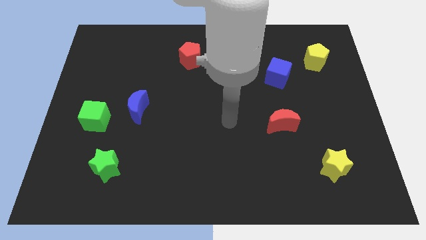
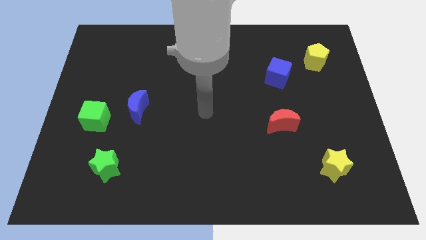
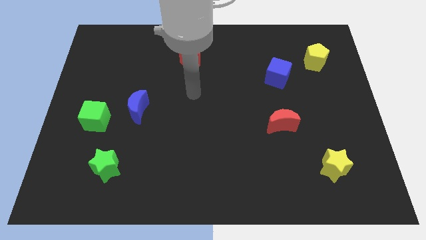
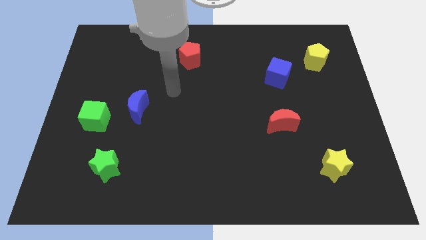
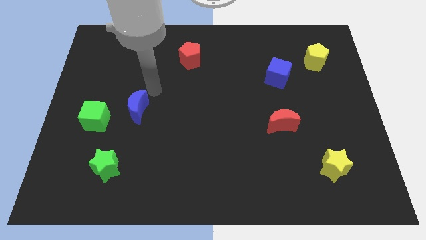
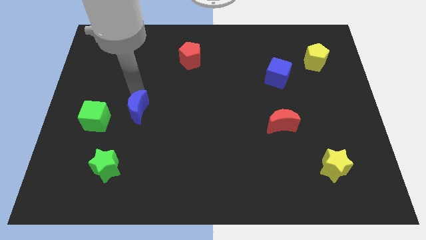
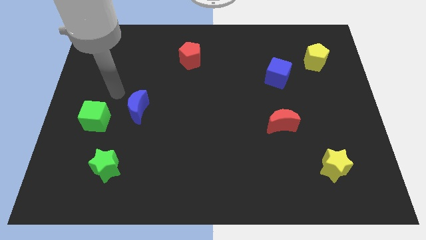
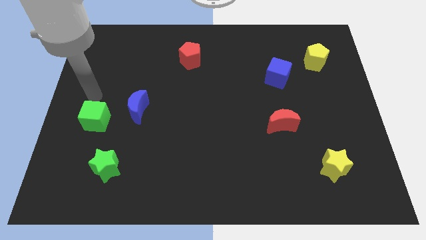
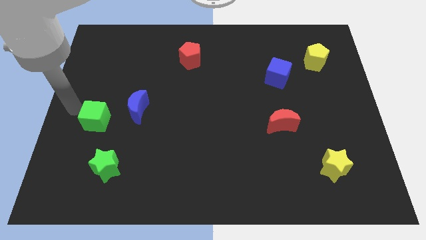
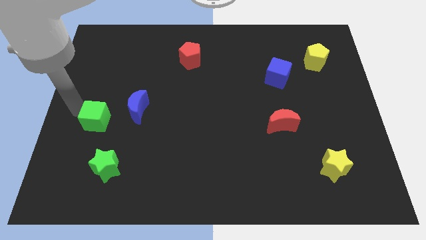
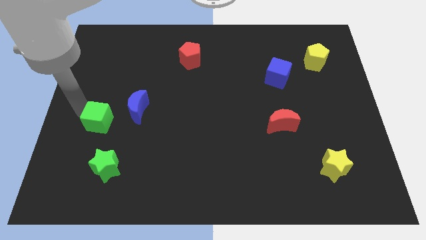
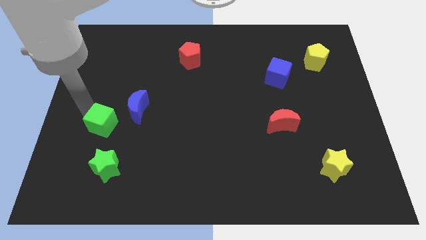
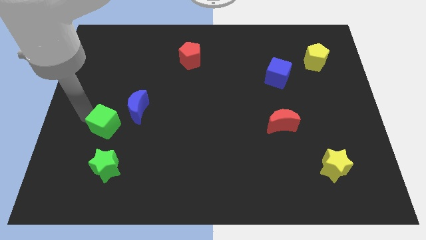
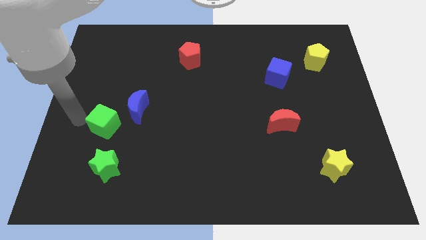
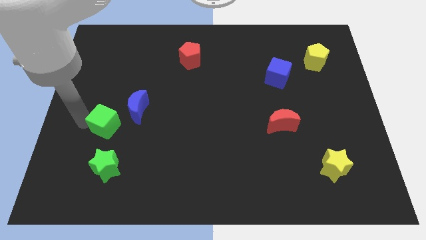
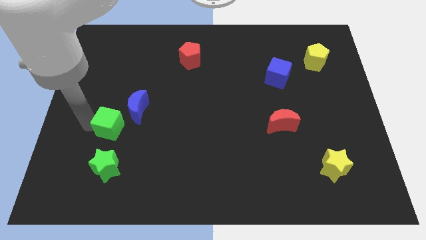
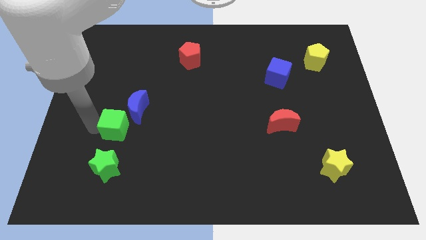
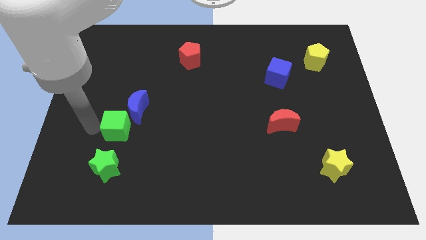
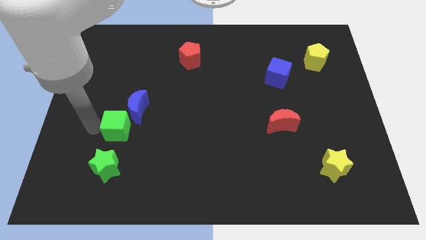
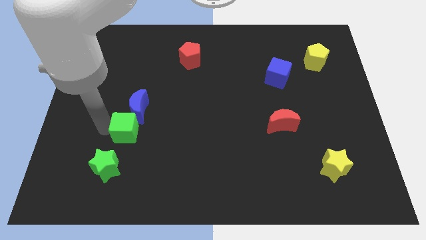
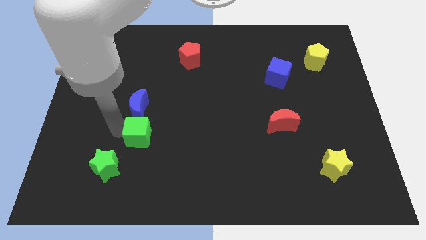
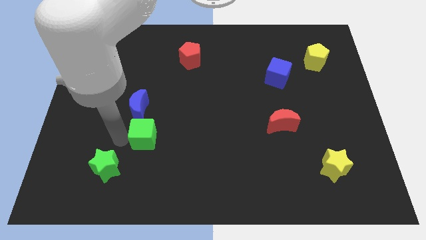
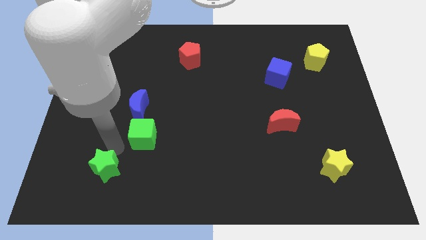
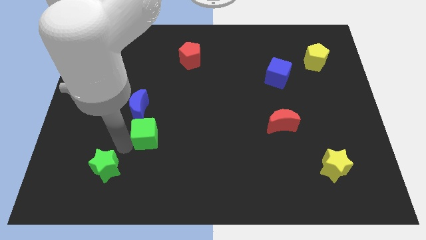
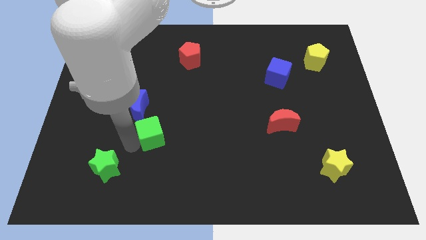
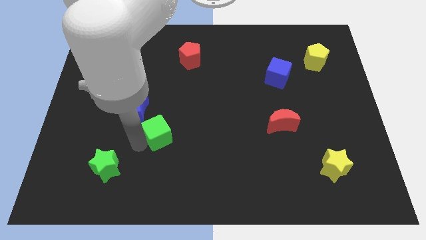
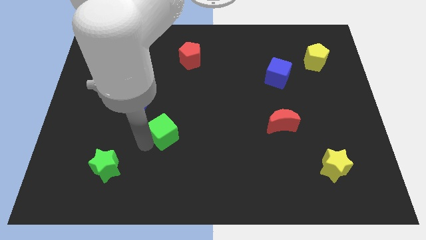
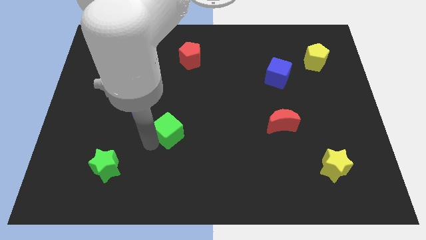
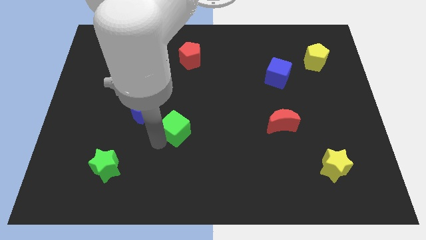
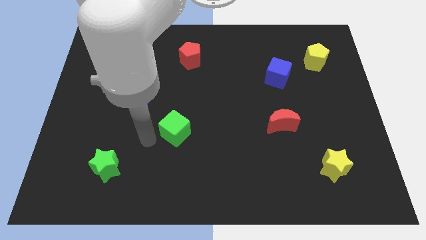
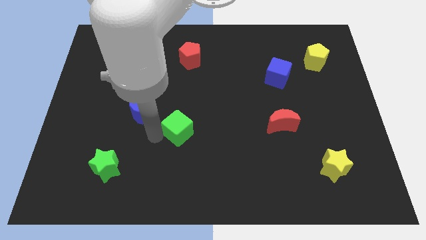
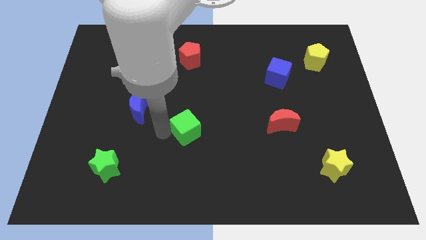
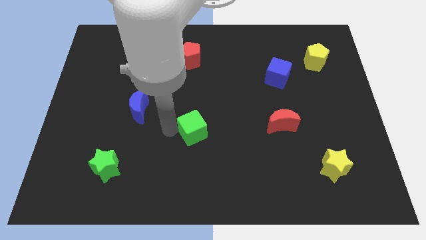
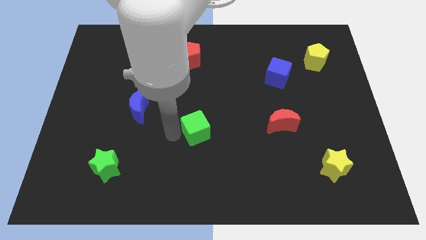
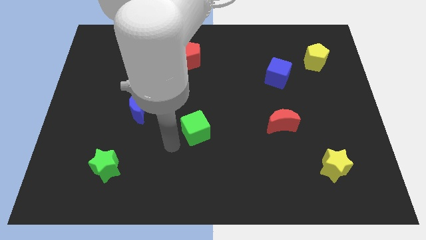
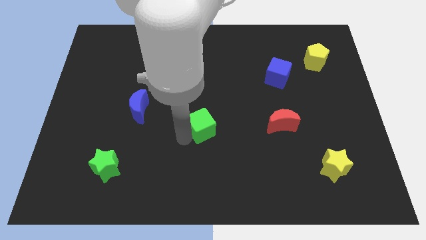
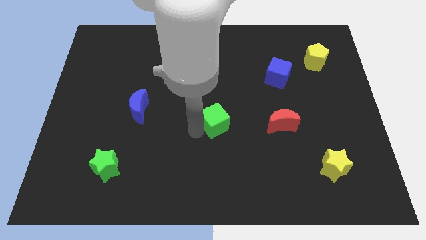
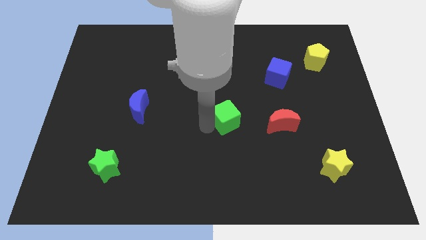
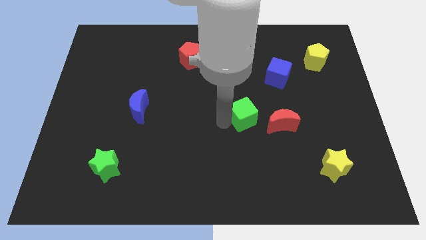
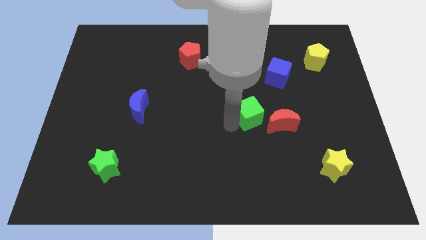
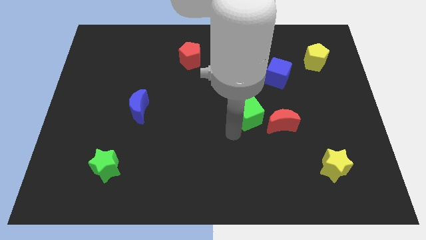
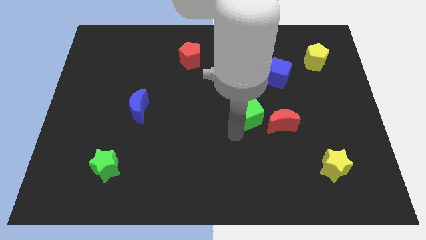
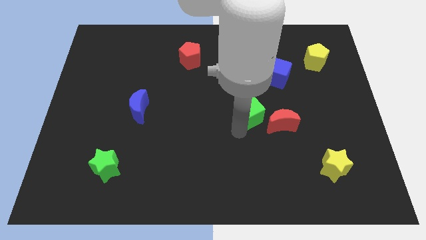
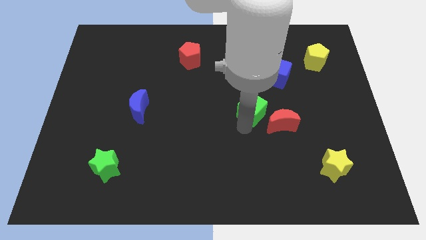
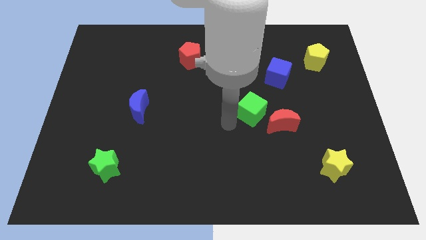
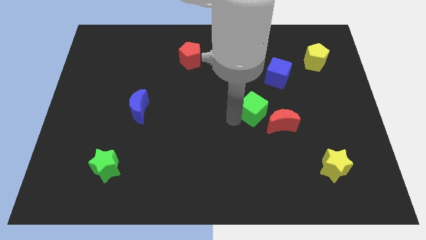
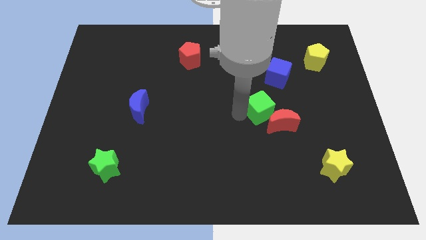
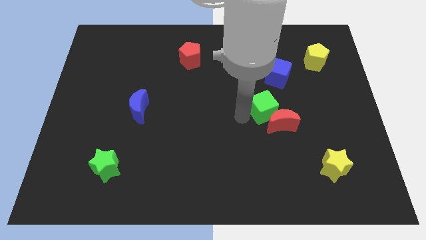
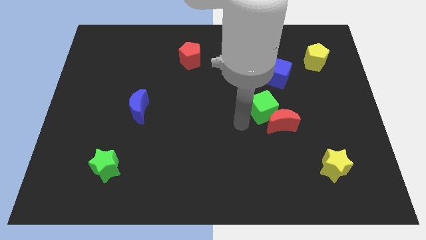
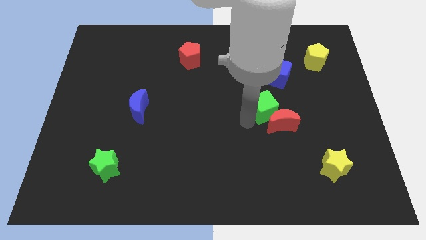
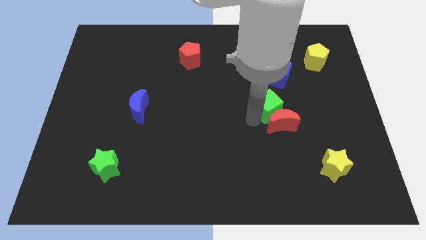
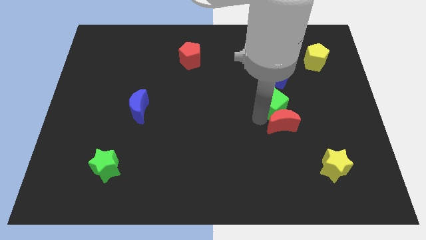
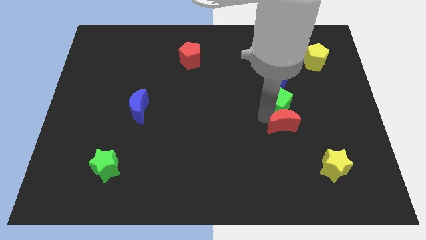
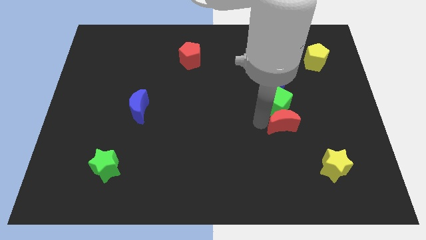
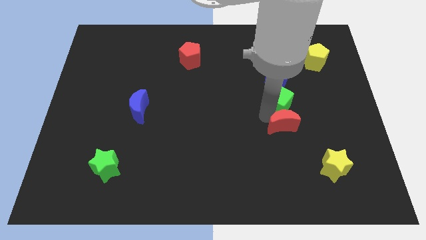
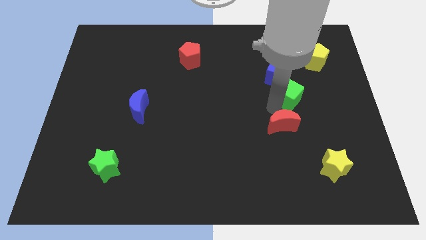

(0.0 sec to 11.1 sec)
push the green cube diagonally down and to the right of the blue cube
